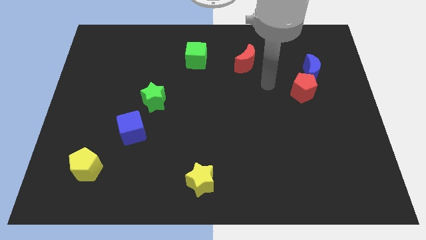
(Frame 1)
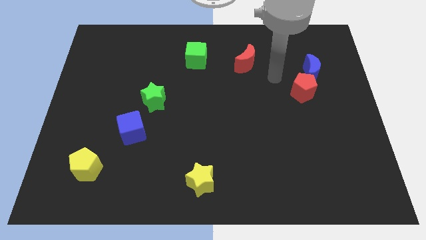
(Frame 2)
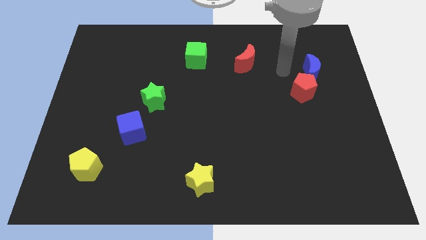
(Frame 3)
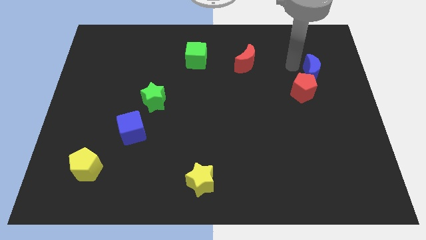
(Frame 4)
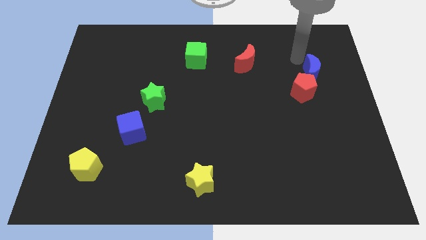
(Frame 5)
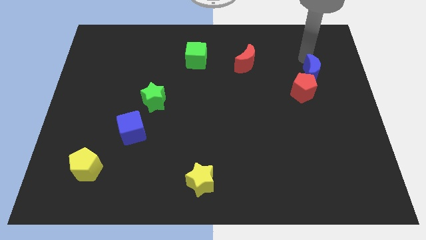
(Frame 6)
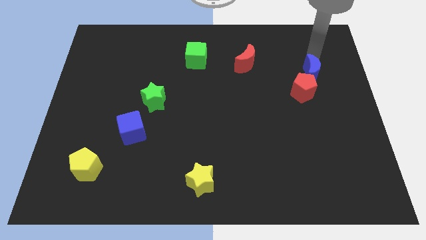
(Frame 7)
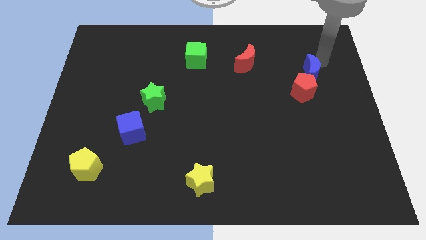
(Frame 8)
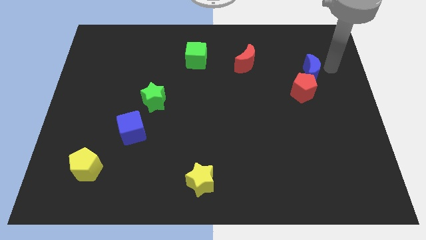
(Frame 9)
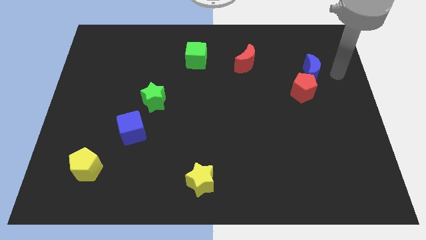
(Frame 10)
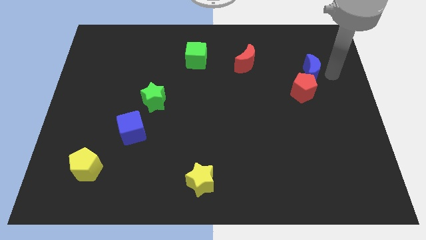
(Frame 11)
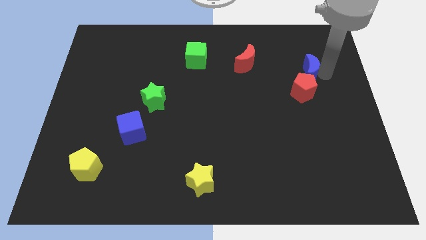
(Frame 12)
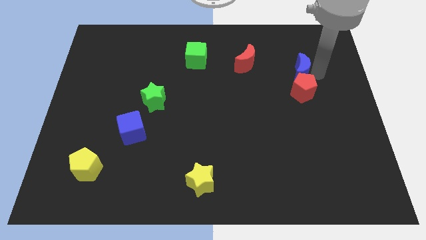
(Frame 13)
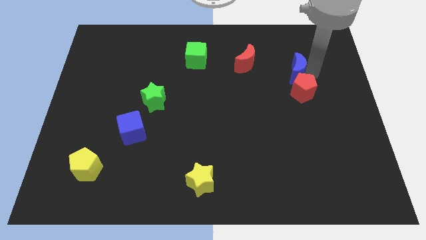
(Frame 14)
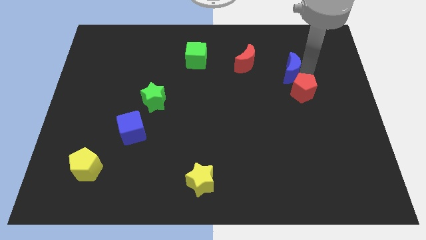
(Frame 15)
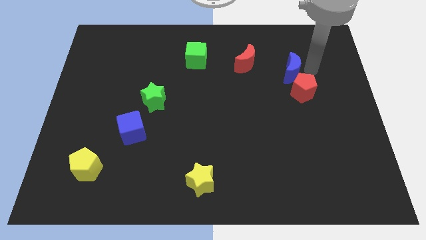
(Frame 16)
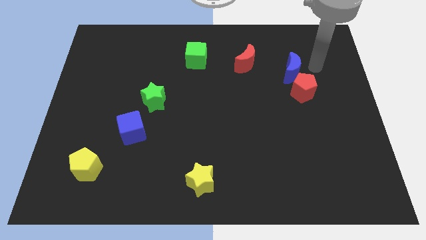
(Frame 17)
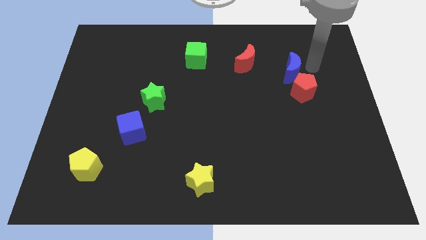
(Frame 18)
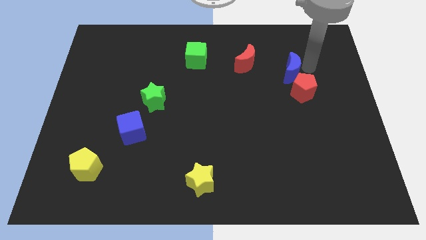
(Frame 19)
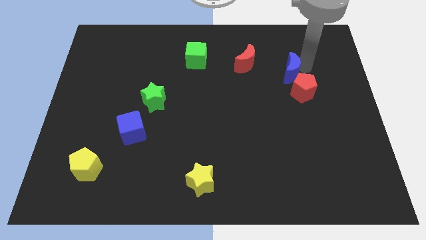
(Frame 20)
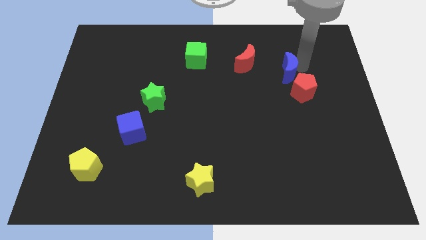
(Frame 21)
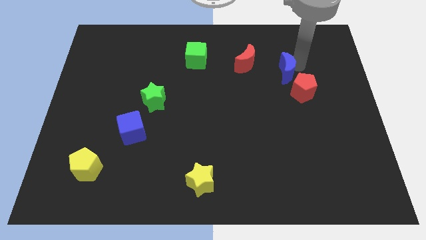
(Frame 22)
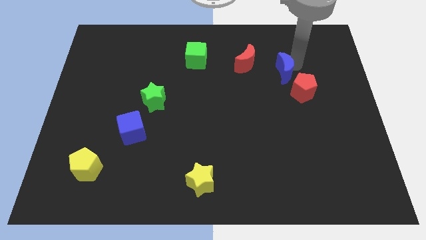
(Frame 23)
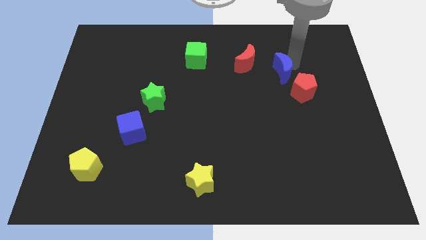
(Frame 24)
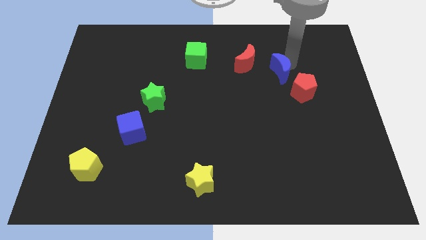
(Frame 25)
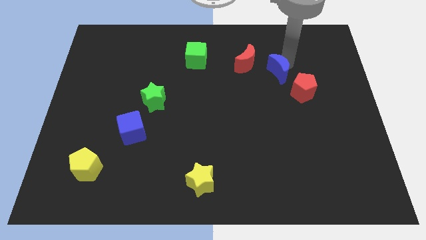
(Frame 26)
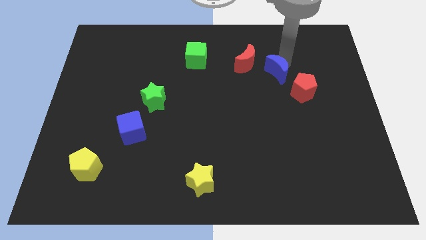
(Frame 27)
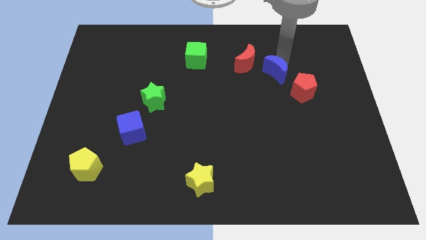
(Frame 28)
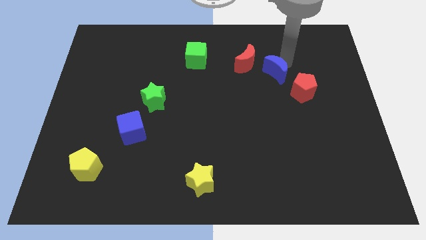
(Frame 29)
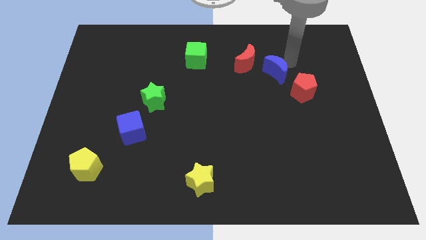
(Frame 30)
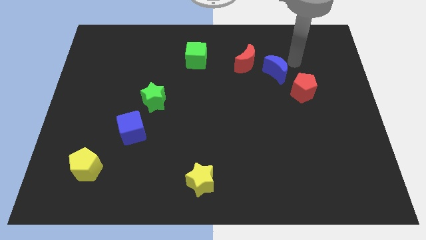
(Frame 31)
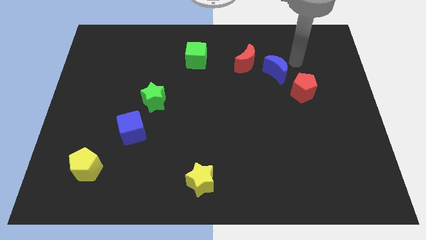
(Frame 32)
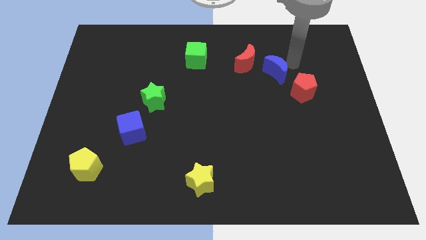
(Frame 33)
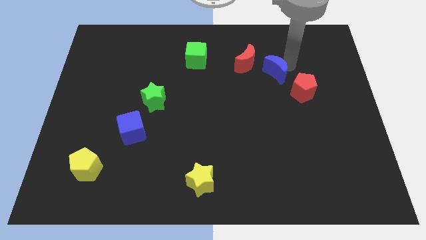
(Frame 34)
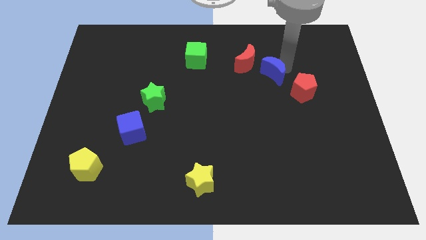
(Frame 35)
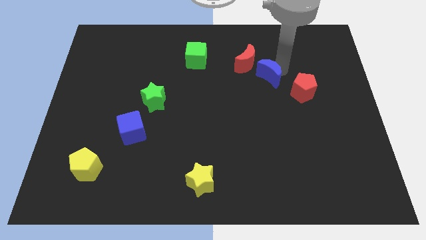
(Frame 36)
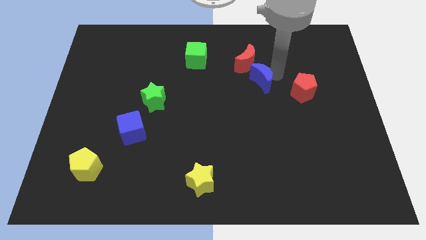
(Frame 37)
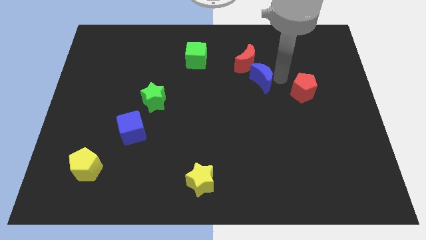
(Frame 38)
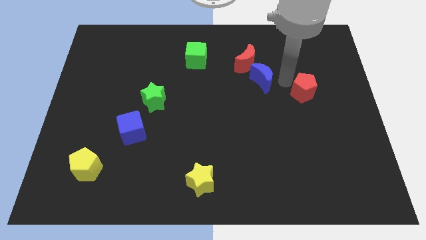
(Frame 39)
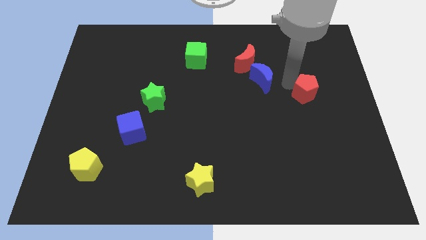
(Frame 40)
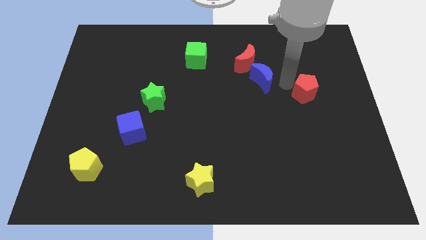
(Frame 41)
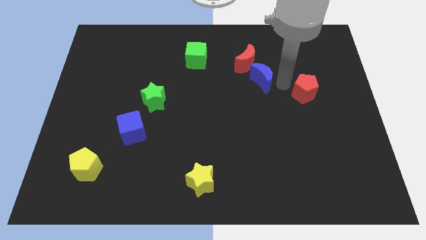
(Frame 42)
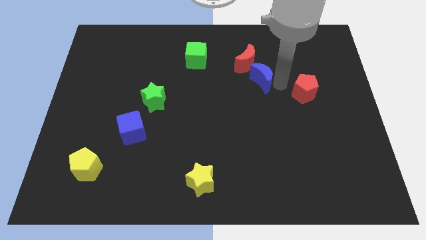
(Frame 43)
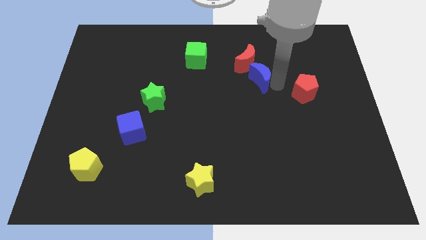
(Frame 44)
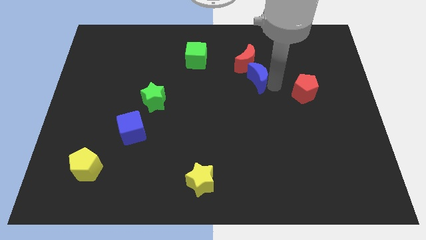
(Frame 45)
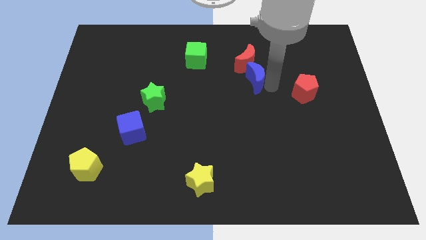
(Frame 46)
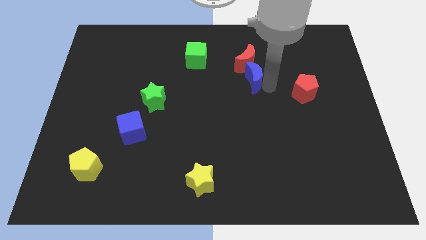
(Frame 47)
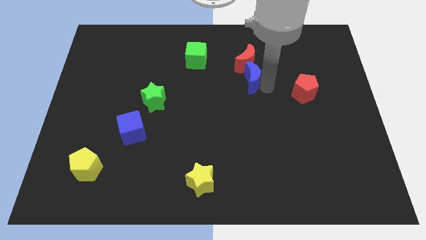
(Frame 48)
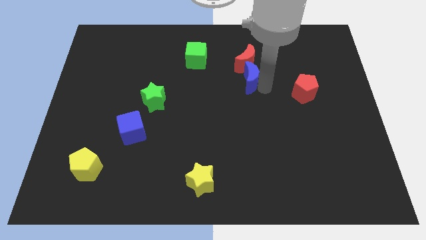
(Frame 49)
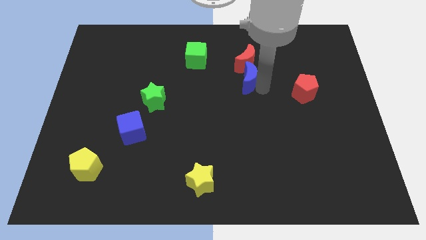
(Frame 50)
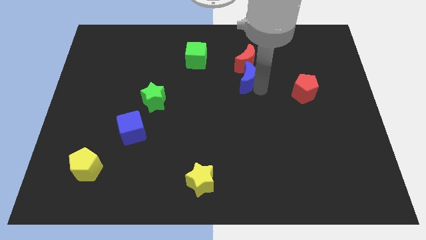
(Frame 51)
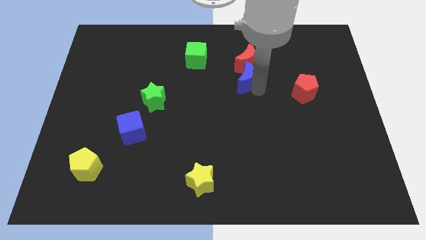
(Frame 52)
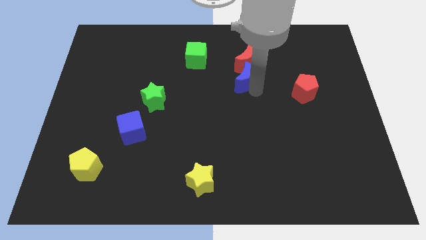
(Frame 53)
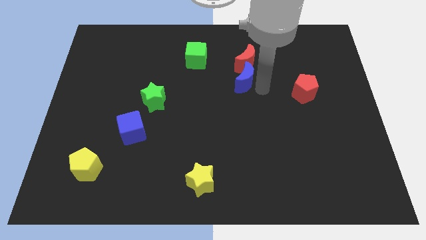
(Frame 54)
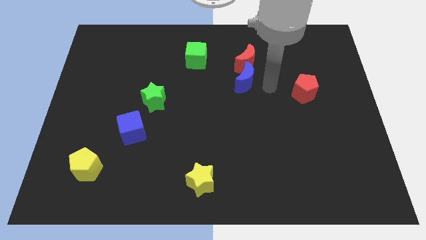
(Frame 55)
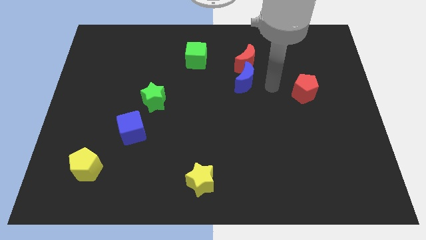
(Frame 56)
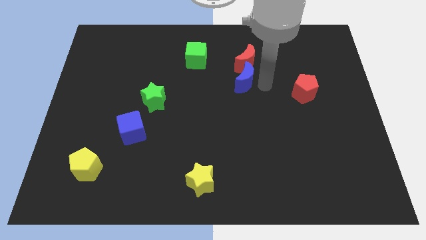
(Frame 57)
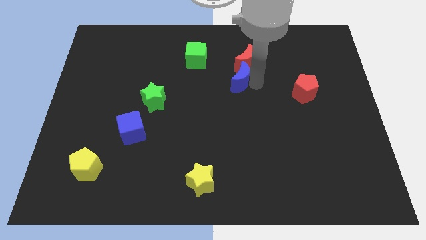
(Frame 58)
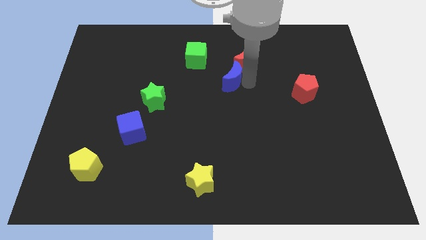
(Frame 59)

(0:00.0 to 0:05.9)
push the blue moon to the left

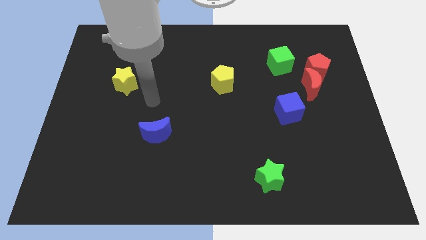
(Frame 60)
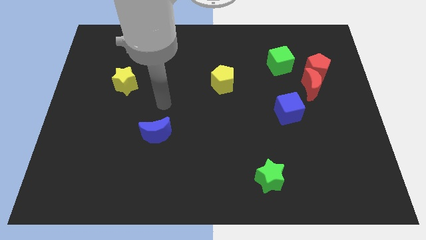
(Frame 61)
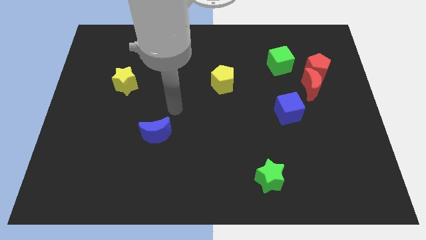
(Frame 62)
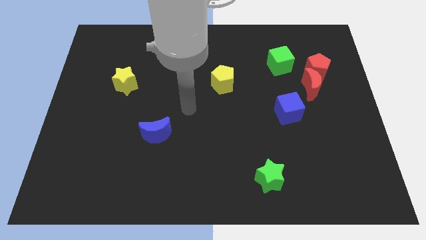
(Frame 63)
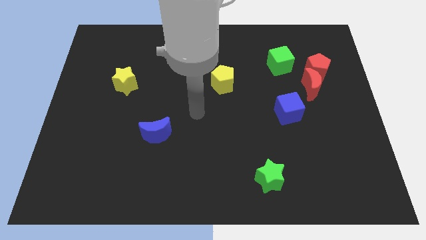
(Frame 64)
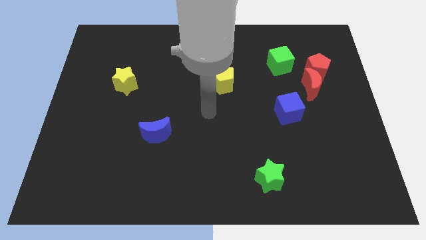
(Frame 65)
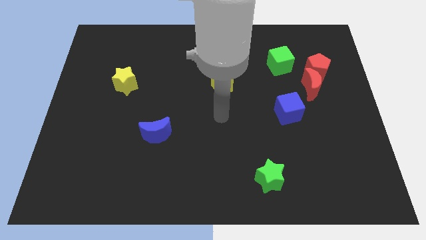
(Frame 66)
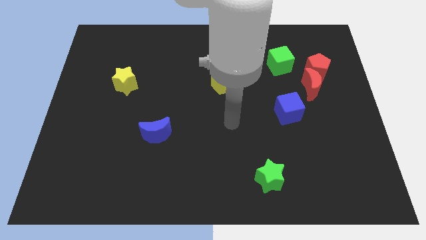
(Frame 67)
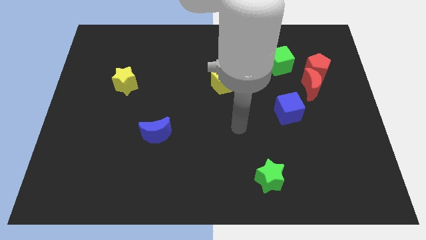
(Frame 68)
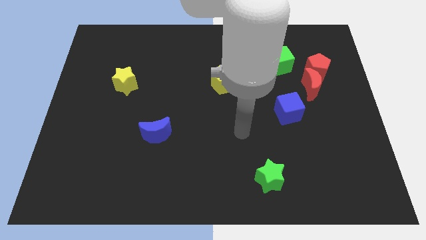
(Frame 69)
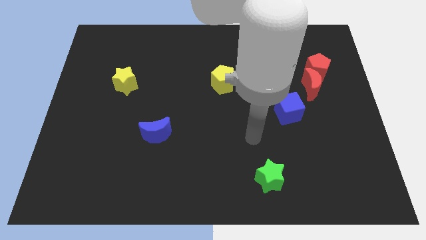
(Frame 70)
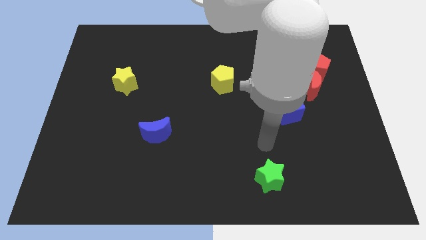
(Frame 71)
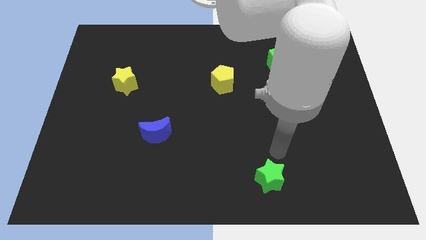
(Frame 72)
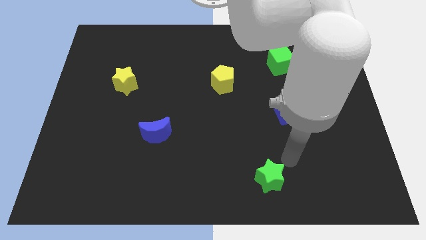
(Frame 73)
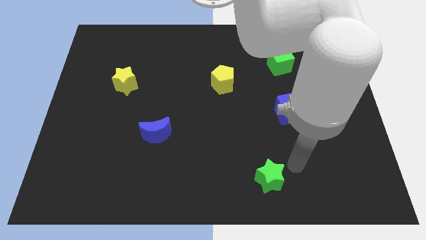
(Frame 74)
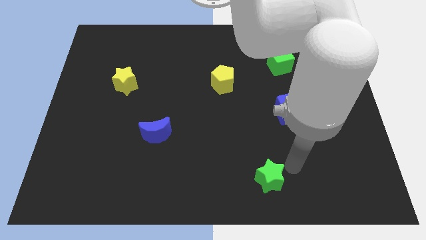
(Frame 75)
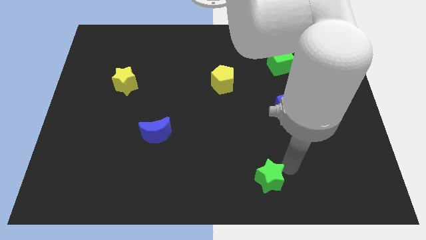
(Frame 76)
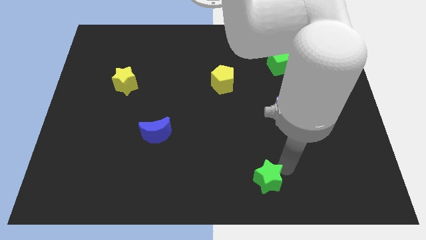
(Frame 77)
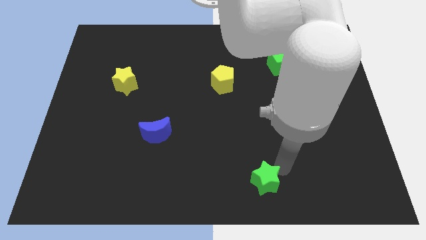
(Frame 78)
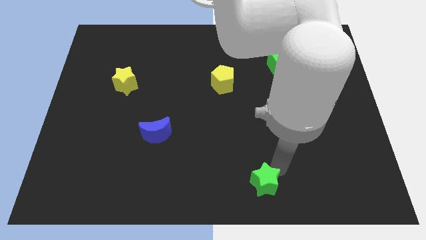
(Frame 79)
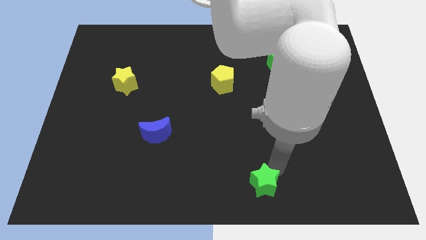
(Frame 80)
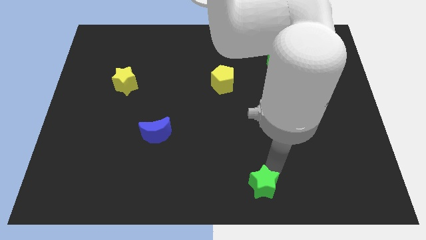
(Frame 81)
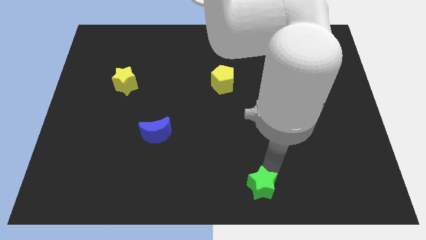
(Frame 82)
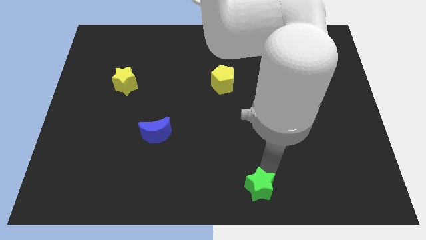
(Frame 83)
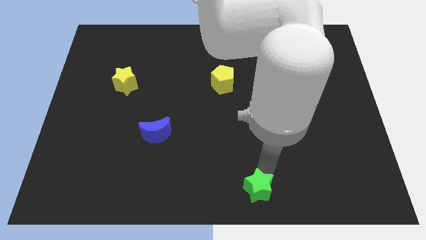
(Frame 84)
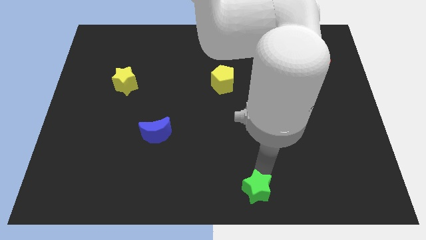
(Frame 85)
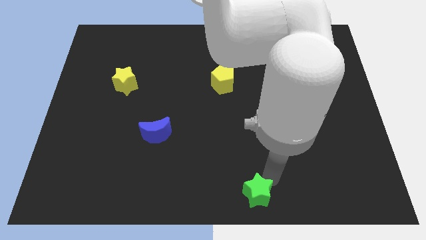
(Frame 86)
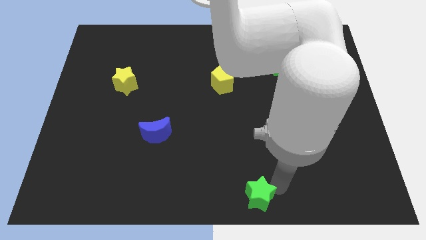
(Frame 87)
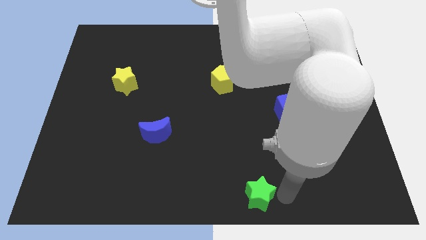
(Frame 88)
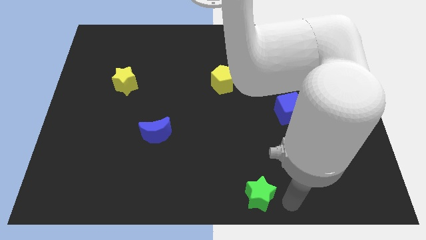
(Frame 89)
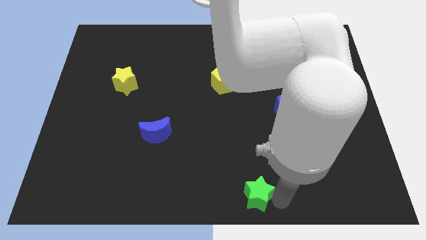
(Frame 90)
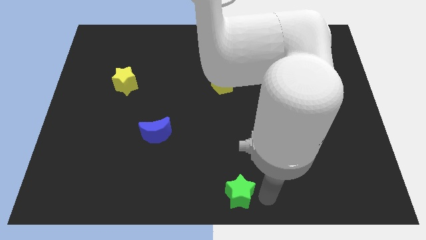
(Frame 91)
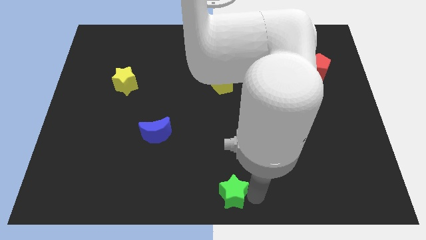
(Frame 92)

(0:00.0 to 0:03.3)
slightly slide the green star to the left
